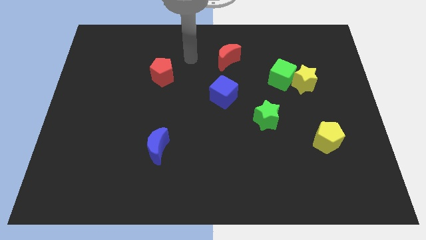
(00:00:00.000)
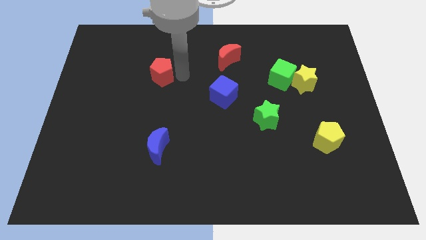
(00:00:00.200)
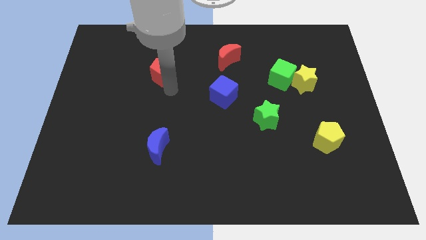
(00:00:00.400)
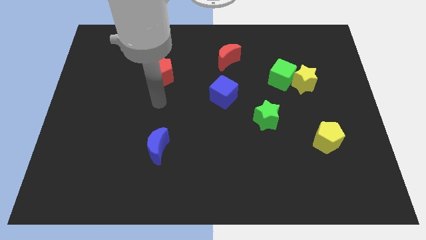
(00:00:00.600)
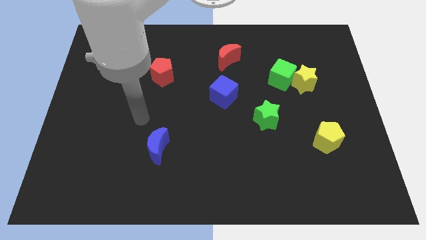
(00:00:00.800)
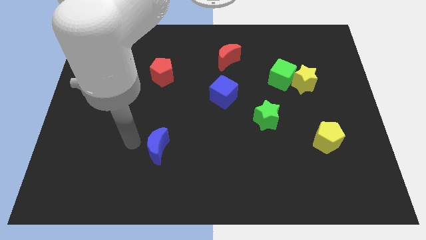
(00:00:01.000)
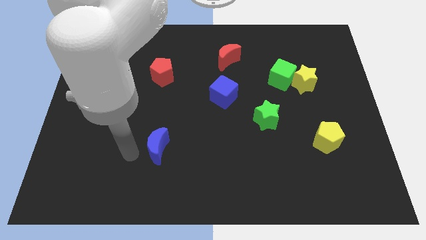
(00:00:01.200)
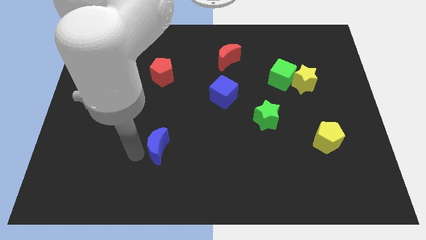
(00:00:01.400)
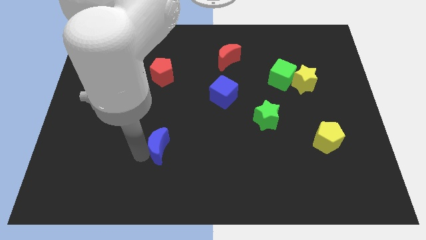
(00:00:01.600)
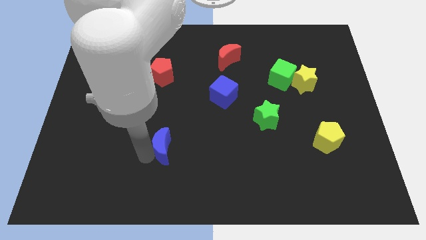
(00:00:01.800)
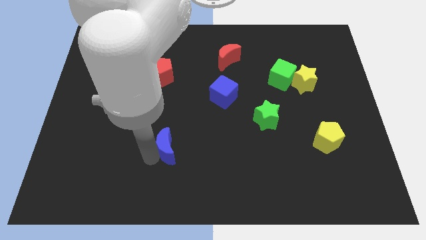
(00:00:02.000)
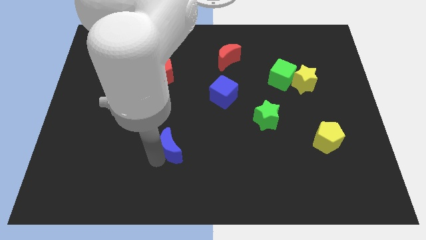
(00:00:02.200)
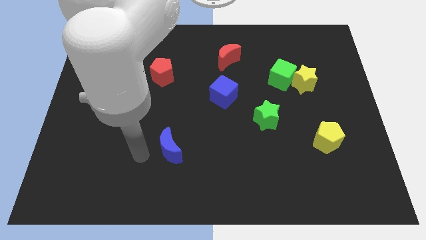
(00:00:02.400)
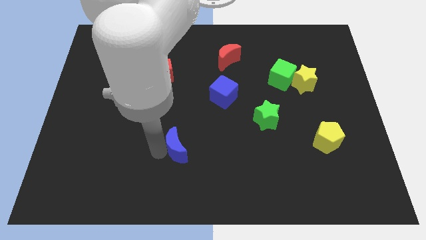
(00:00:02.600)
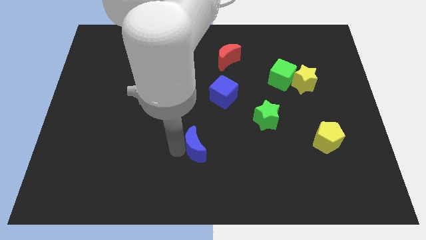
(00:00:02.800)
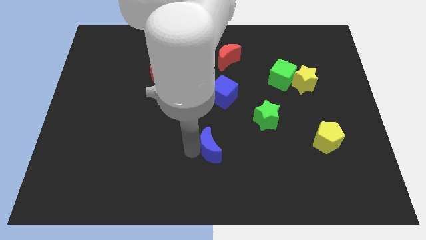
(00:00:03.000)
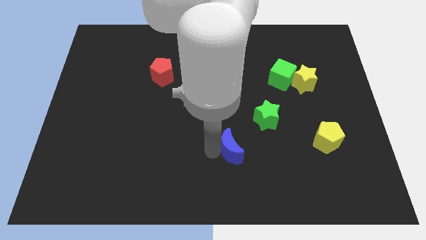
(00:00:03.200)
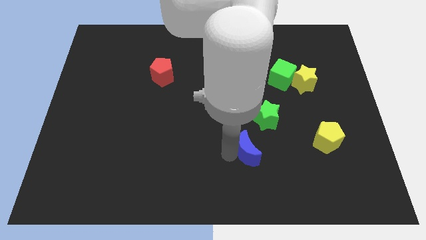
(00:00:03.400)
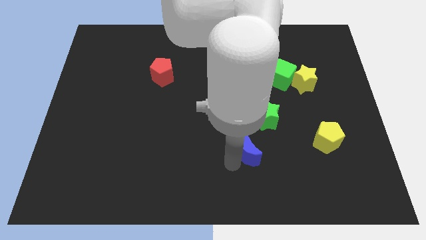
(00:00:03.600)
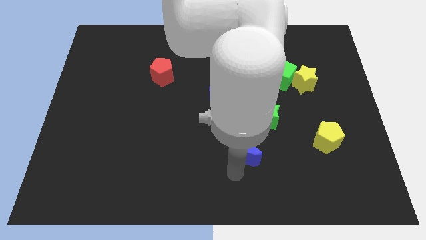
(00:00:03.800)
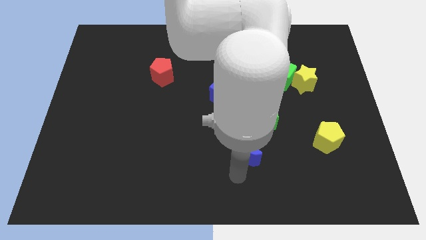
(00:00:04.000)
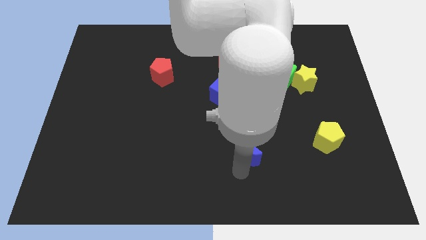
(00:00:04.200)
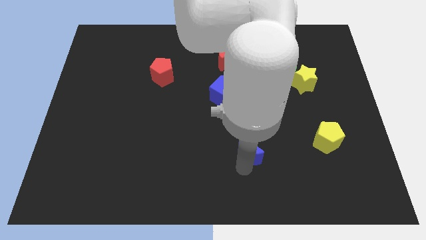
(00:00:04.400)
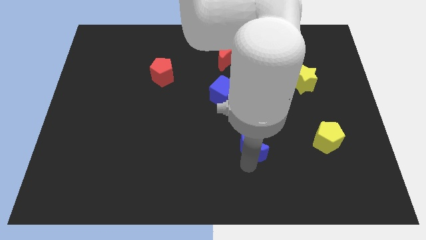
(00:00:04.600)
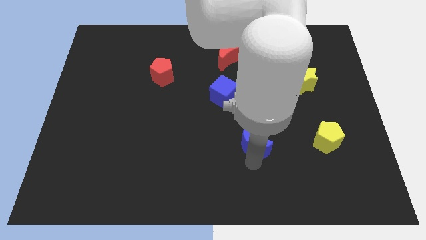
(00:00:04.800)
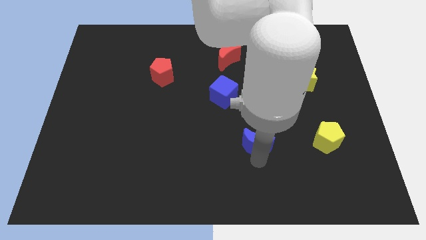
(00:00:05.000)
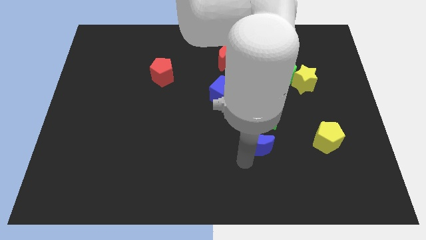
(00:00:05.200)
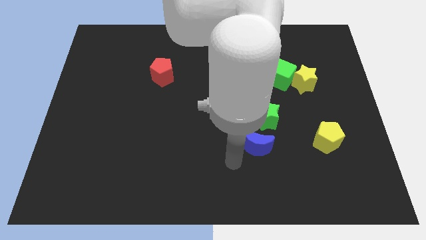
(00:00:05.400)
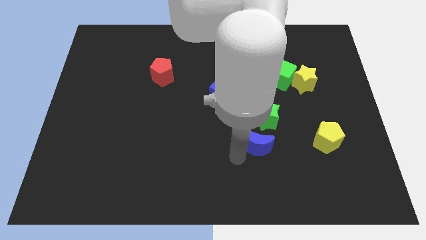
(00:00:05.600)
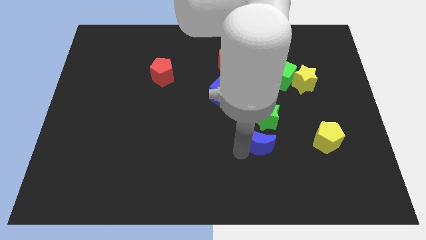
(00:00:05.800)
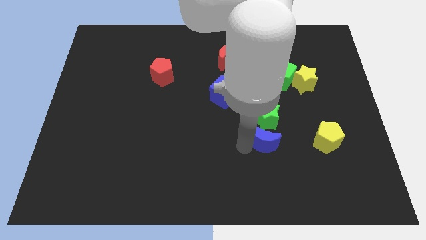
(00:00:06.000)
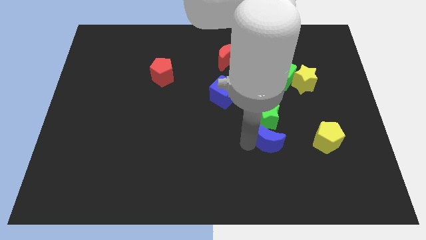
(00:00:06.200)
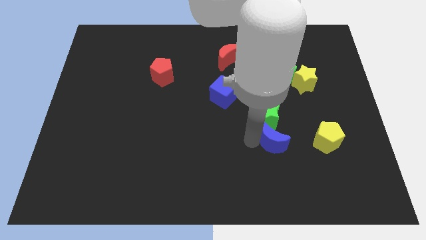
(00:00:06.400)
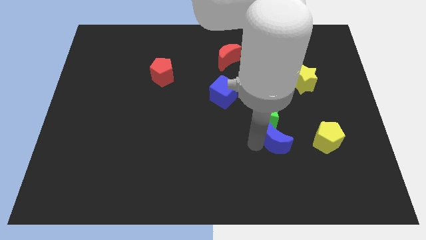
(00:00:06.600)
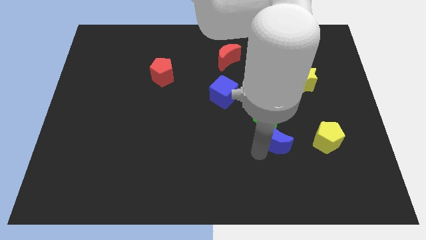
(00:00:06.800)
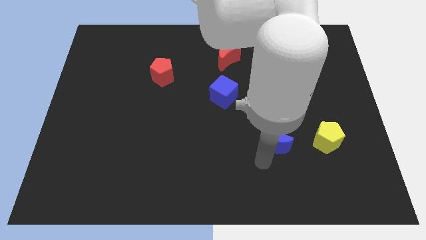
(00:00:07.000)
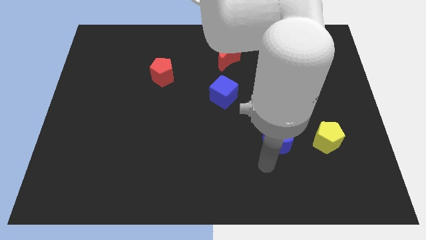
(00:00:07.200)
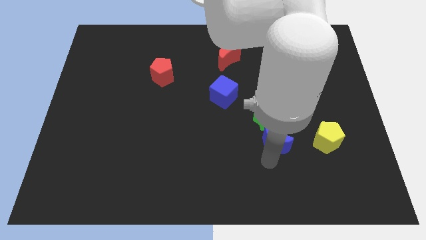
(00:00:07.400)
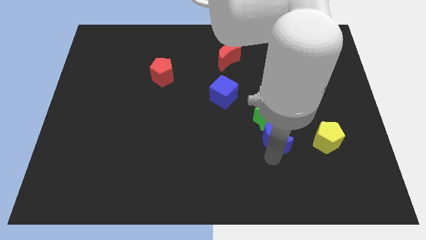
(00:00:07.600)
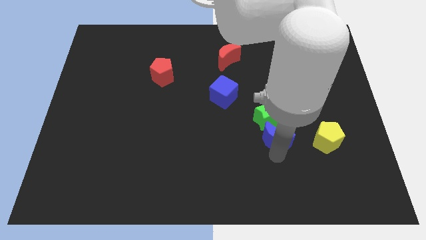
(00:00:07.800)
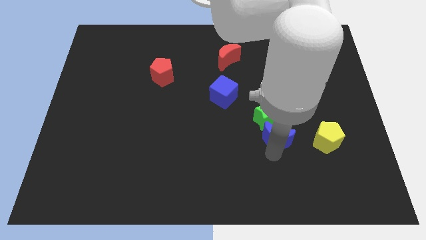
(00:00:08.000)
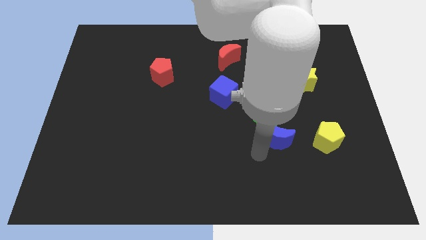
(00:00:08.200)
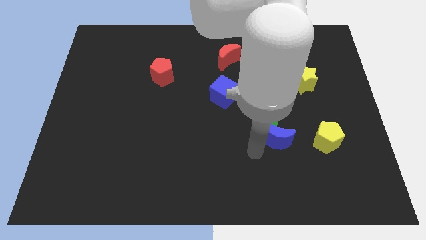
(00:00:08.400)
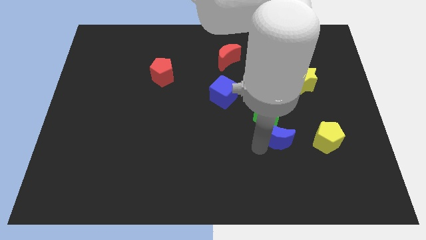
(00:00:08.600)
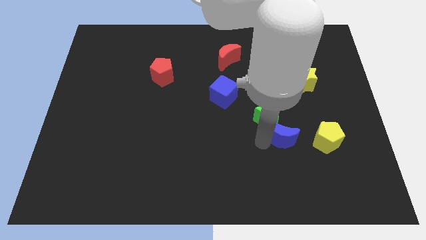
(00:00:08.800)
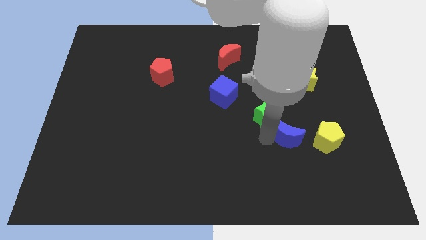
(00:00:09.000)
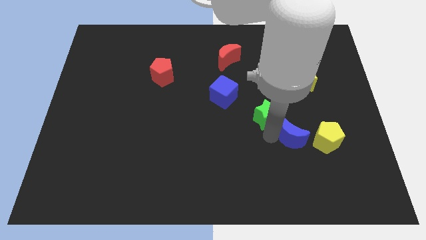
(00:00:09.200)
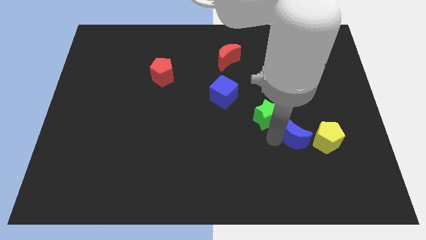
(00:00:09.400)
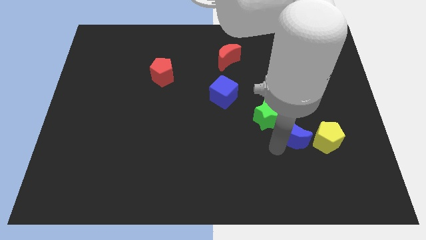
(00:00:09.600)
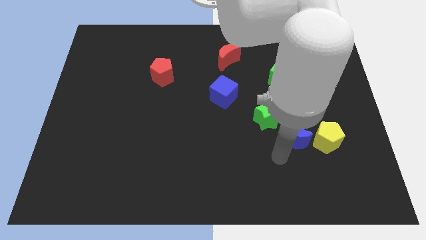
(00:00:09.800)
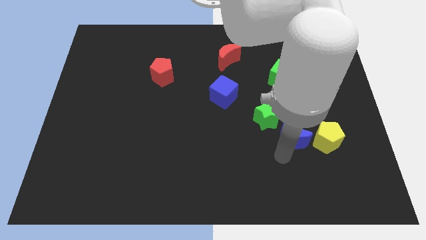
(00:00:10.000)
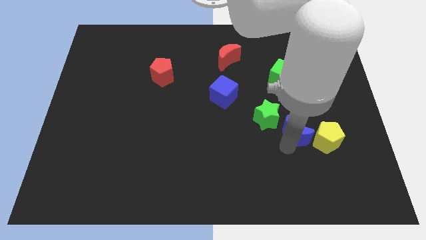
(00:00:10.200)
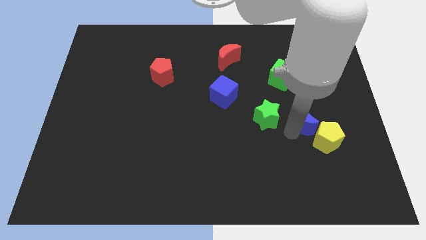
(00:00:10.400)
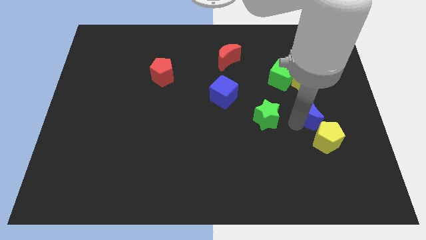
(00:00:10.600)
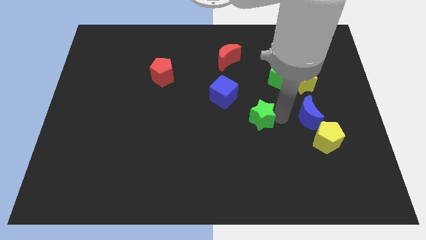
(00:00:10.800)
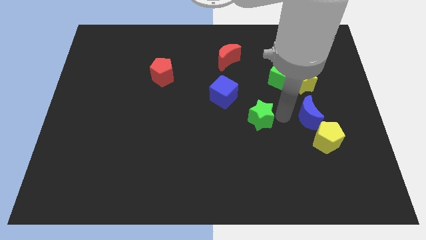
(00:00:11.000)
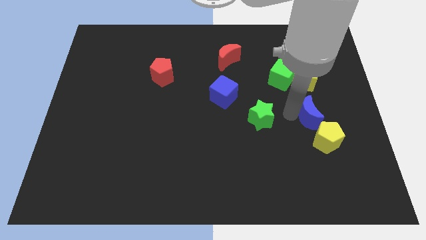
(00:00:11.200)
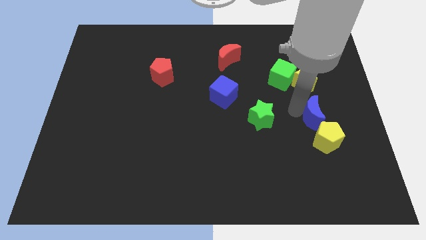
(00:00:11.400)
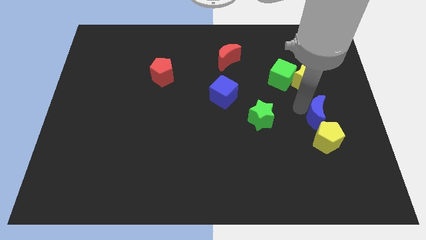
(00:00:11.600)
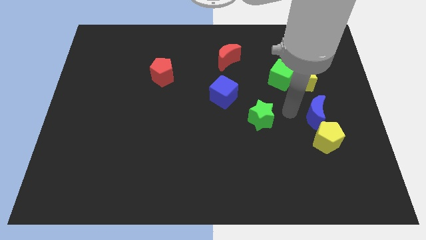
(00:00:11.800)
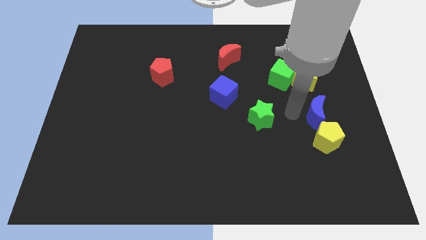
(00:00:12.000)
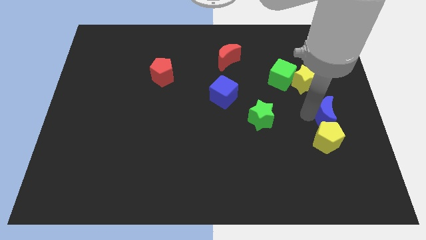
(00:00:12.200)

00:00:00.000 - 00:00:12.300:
slide the blue moon to the right side of the board
